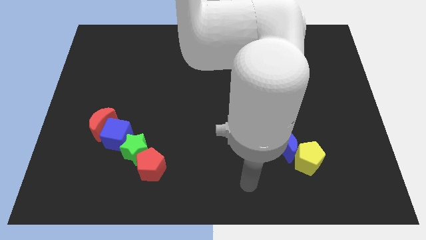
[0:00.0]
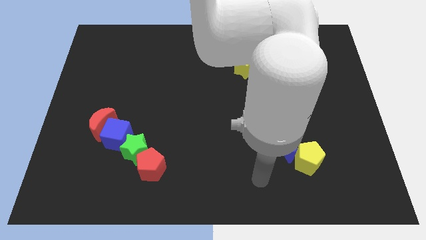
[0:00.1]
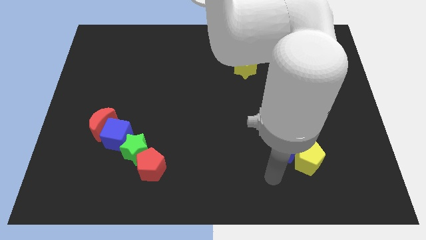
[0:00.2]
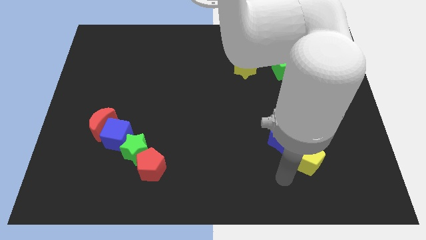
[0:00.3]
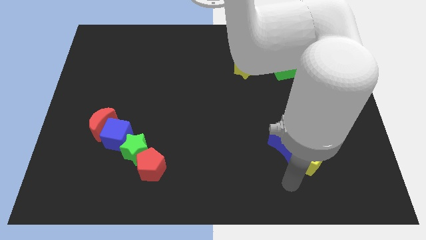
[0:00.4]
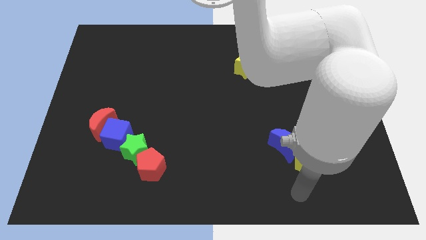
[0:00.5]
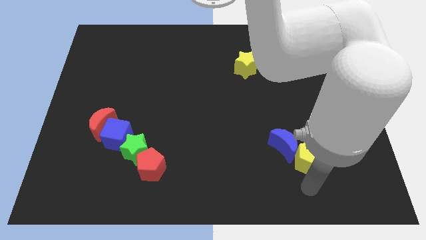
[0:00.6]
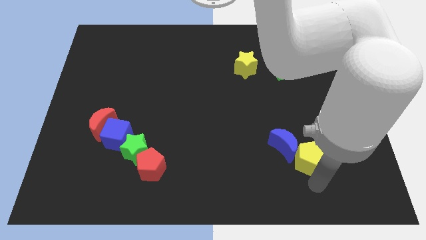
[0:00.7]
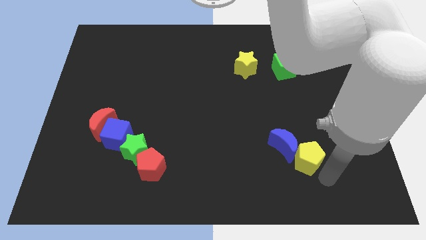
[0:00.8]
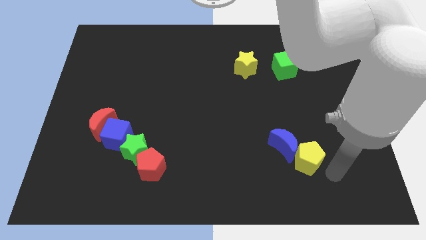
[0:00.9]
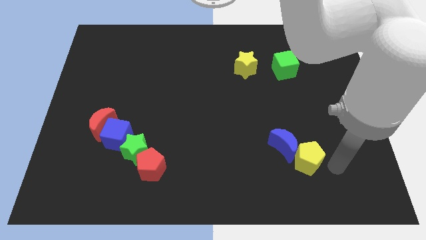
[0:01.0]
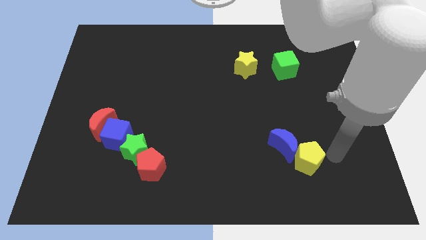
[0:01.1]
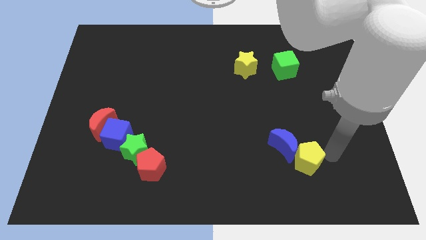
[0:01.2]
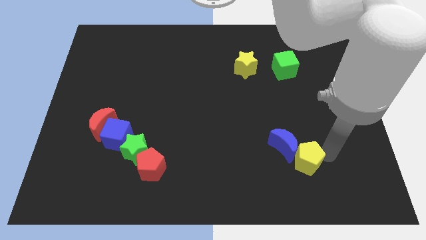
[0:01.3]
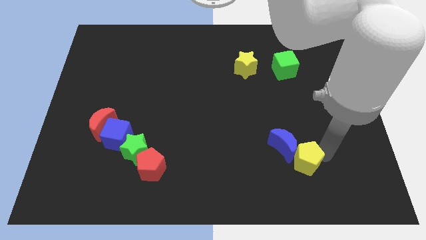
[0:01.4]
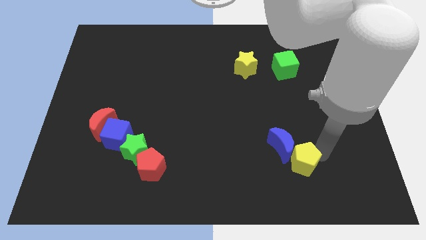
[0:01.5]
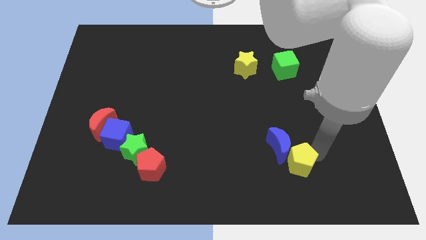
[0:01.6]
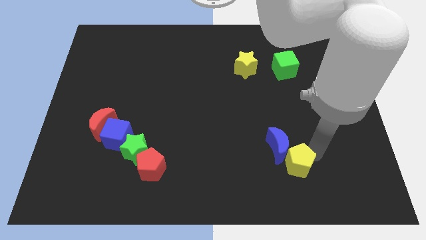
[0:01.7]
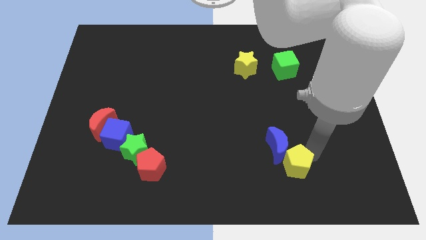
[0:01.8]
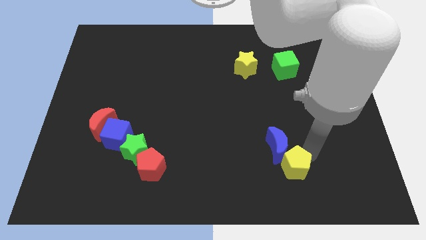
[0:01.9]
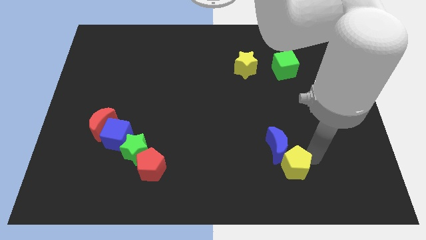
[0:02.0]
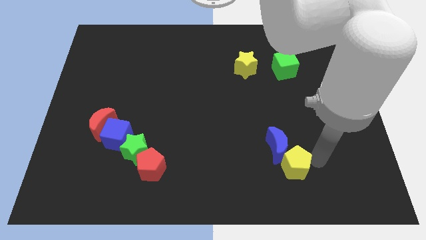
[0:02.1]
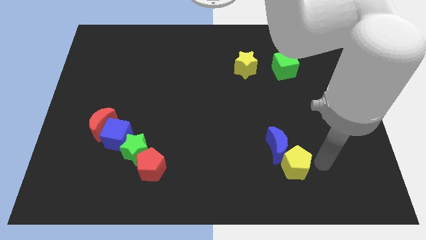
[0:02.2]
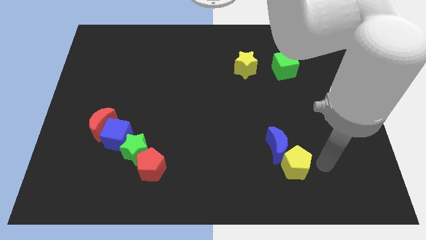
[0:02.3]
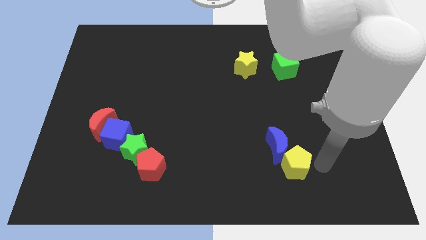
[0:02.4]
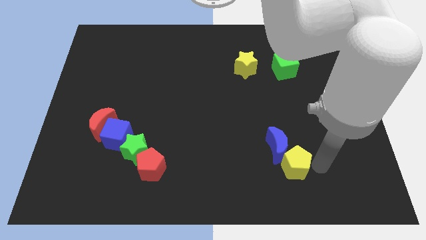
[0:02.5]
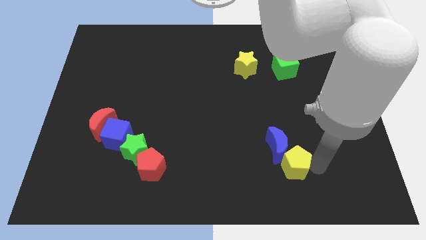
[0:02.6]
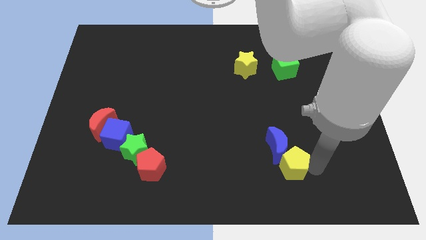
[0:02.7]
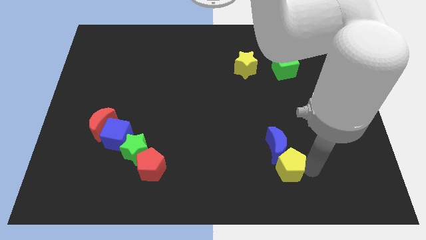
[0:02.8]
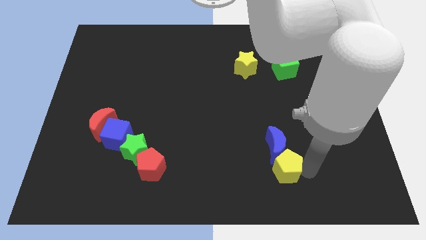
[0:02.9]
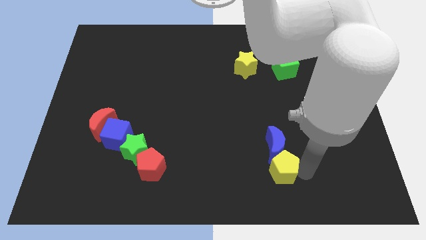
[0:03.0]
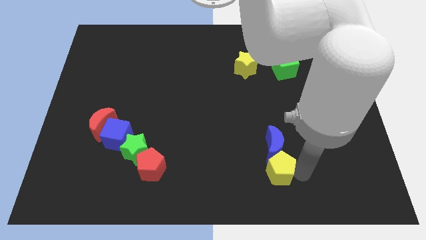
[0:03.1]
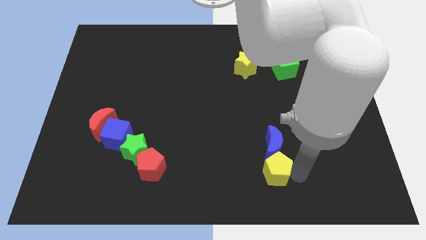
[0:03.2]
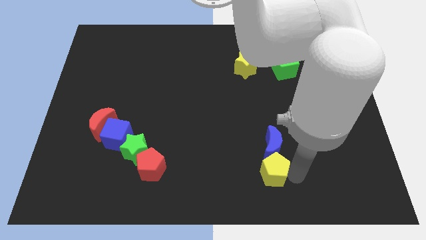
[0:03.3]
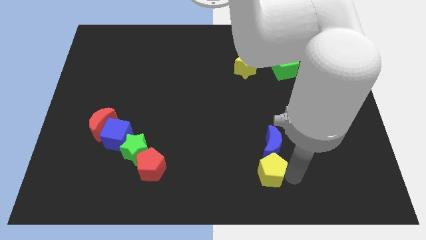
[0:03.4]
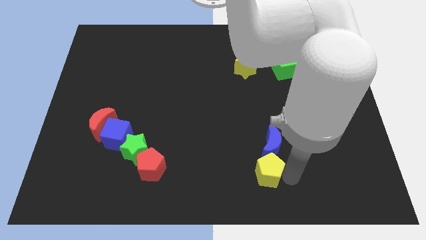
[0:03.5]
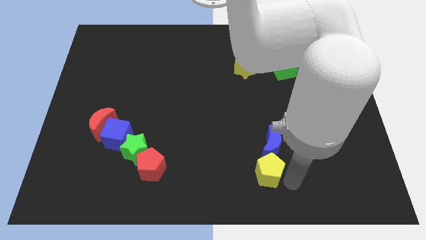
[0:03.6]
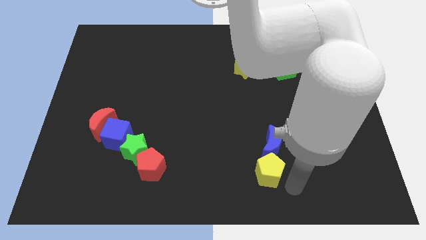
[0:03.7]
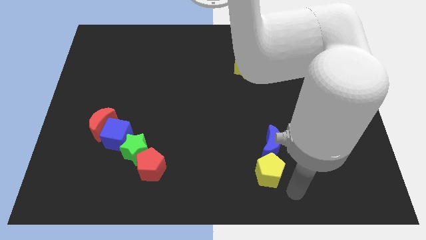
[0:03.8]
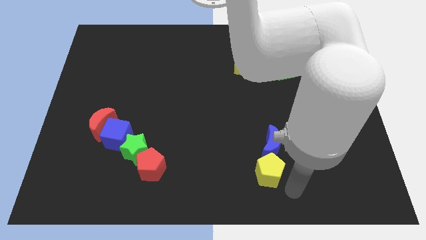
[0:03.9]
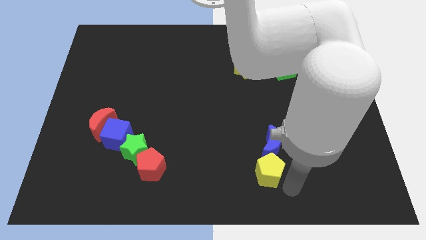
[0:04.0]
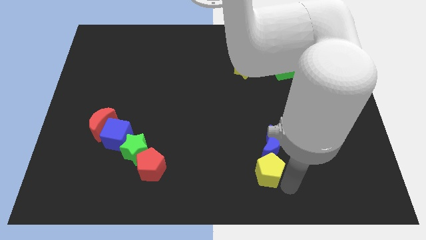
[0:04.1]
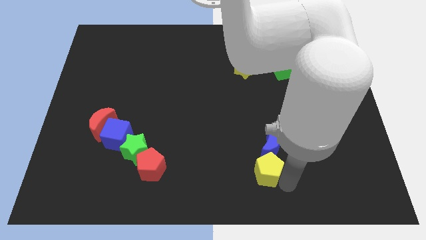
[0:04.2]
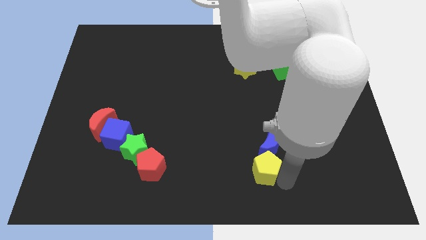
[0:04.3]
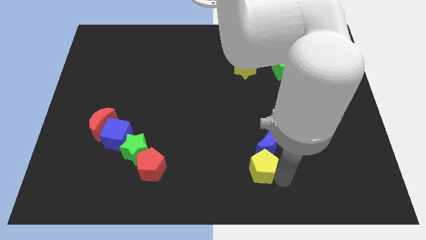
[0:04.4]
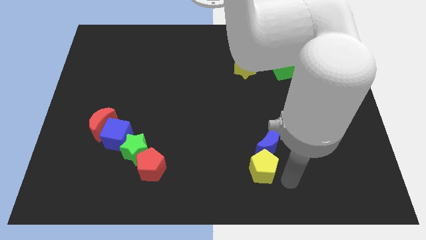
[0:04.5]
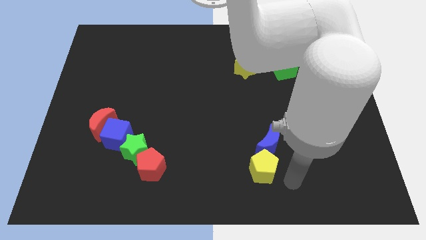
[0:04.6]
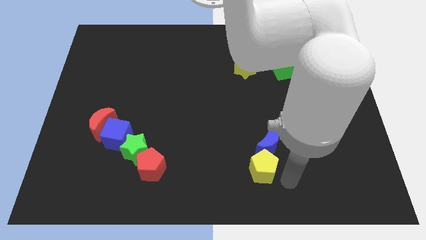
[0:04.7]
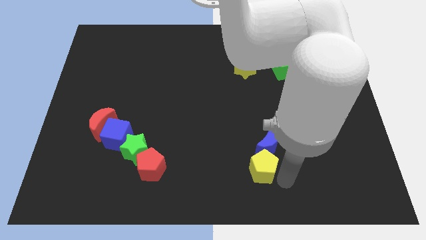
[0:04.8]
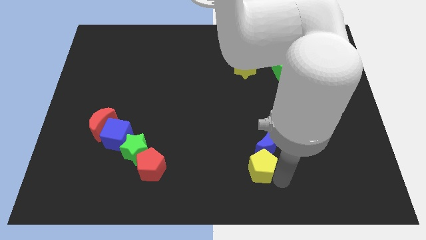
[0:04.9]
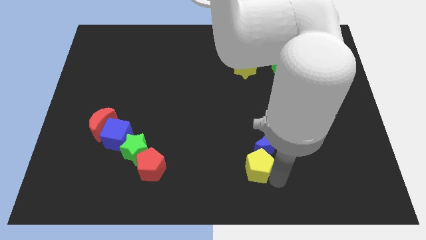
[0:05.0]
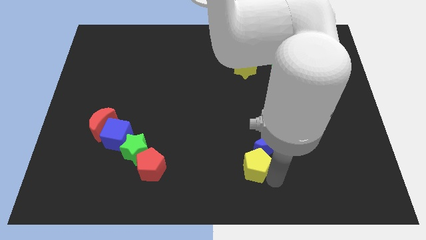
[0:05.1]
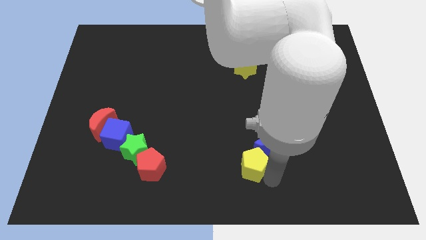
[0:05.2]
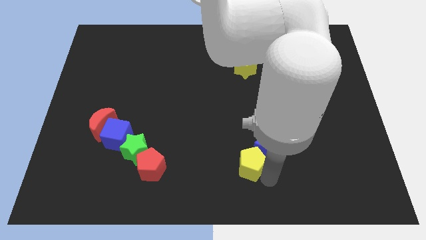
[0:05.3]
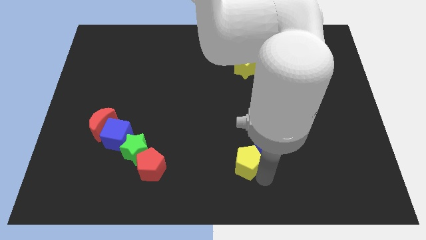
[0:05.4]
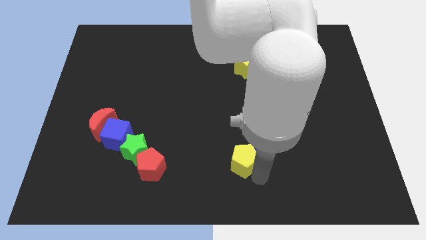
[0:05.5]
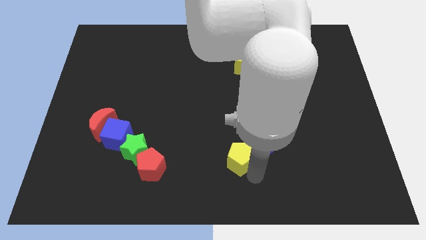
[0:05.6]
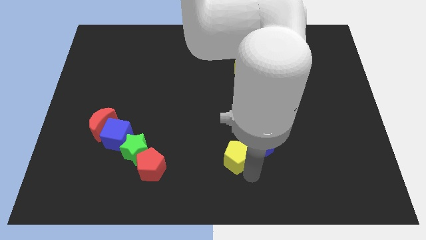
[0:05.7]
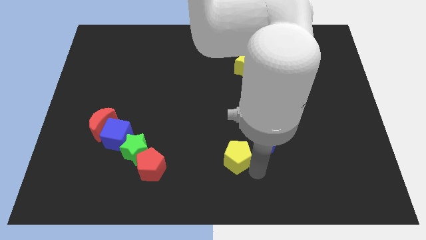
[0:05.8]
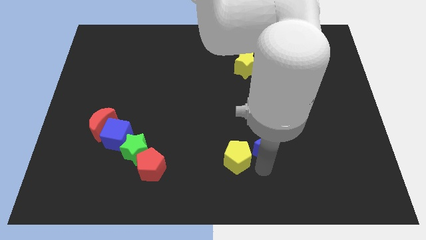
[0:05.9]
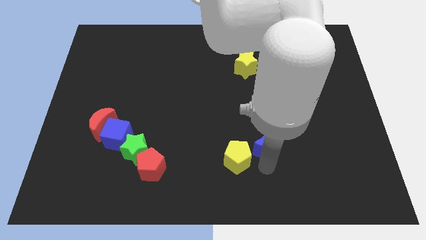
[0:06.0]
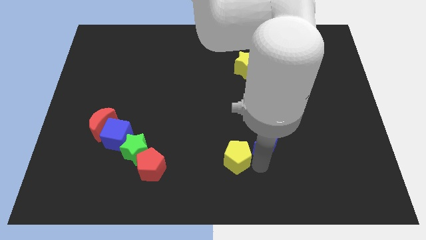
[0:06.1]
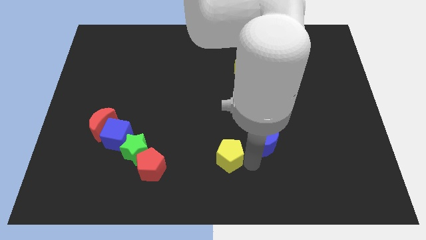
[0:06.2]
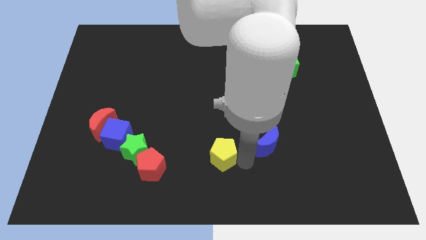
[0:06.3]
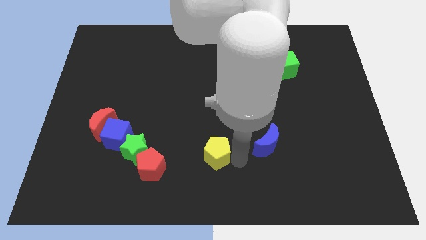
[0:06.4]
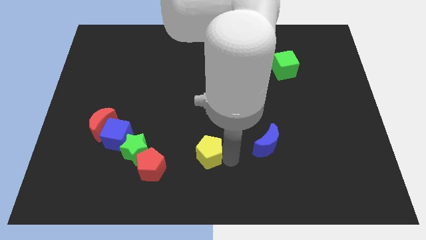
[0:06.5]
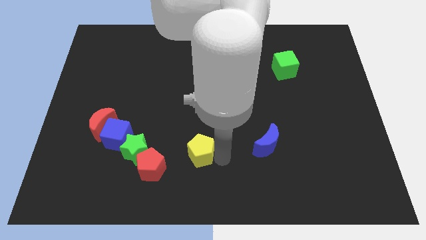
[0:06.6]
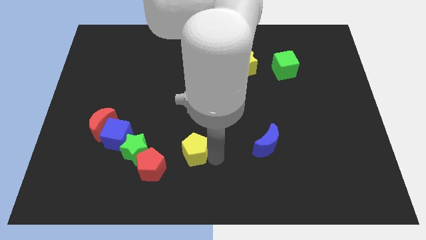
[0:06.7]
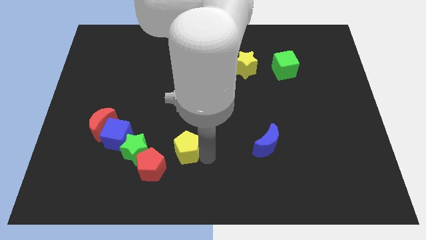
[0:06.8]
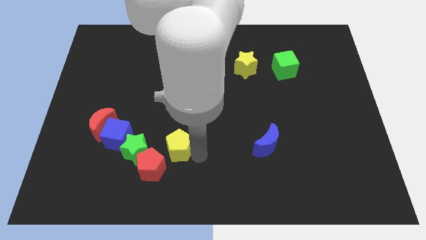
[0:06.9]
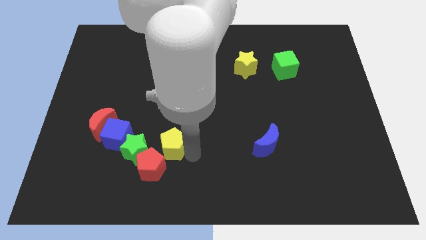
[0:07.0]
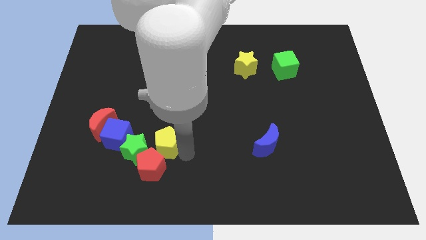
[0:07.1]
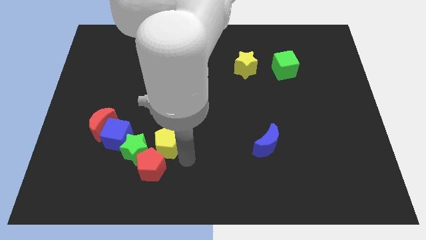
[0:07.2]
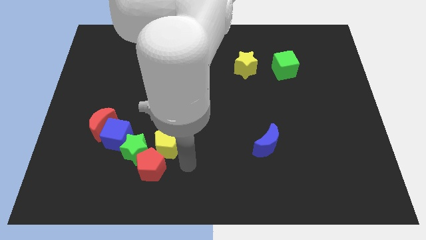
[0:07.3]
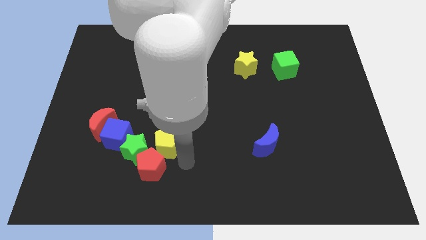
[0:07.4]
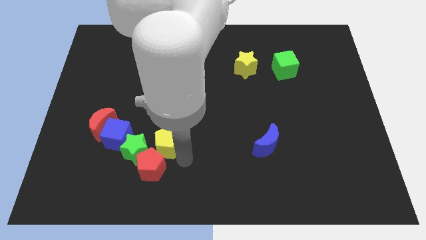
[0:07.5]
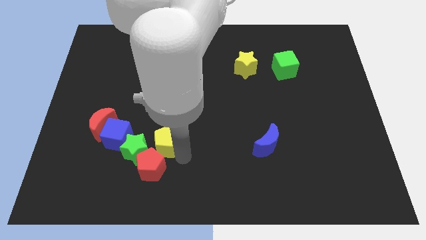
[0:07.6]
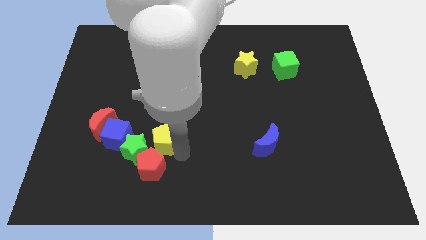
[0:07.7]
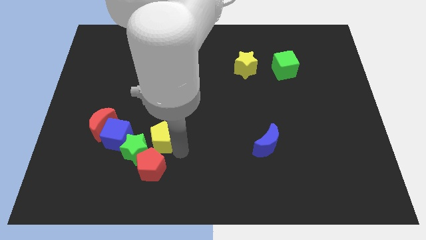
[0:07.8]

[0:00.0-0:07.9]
slide the yellow pentagon to the right side of the red moon
